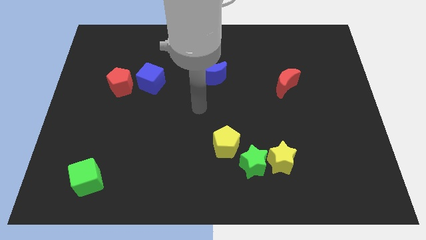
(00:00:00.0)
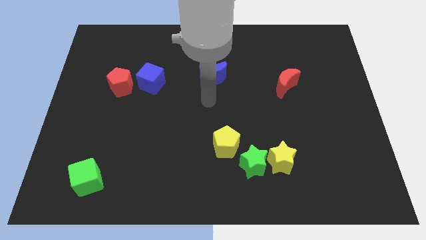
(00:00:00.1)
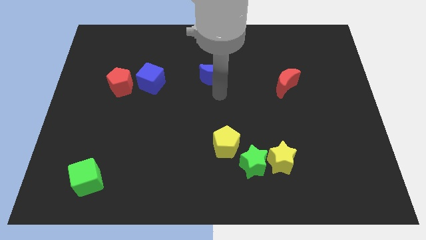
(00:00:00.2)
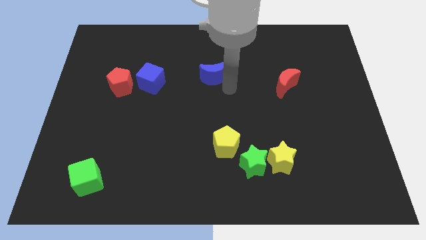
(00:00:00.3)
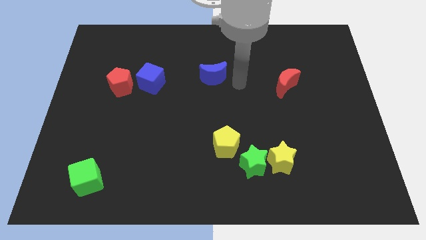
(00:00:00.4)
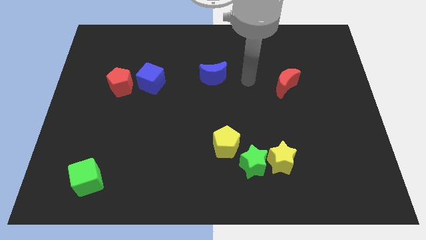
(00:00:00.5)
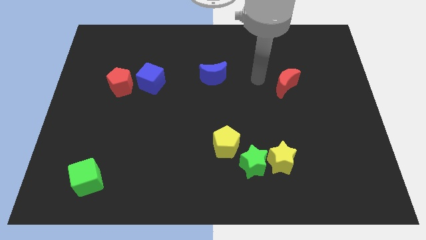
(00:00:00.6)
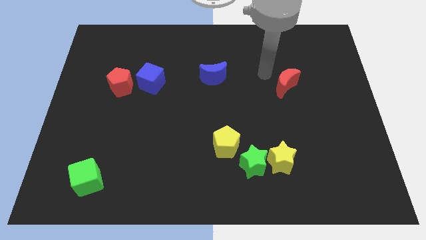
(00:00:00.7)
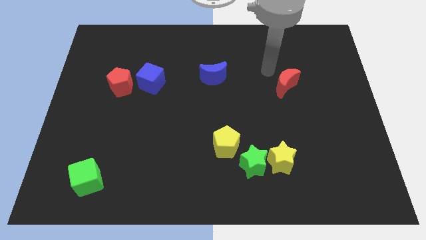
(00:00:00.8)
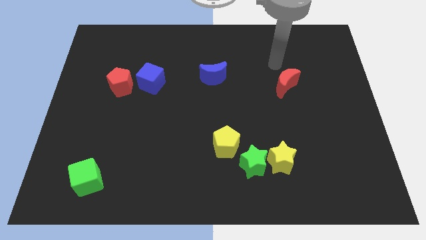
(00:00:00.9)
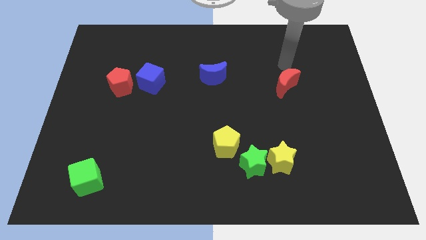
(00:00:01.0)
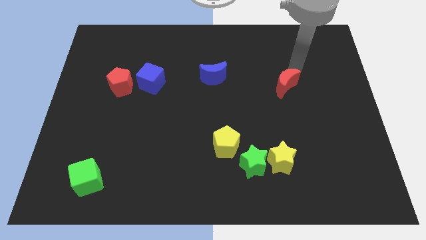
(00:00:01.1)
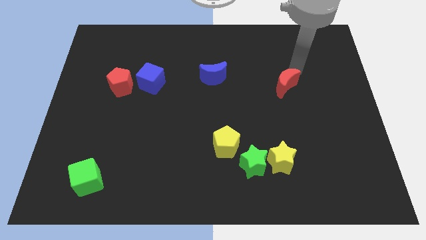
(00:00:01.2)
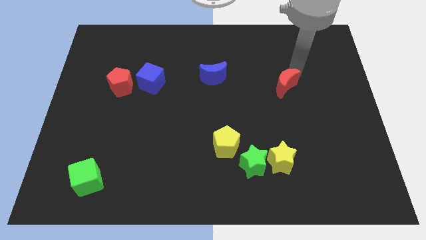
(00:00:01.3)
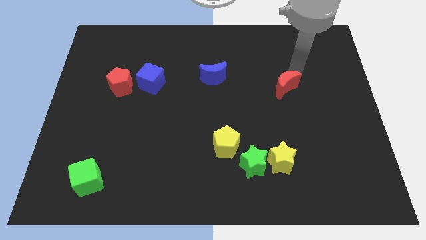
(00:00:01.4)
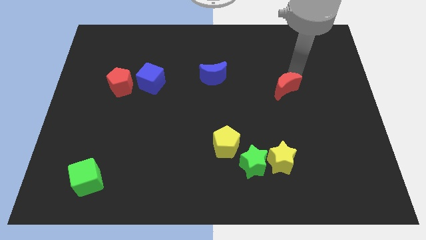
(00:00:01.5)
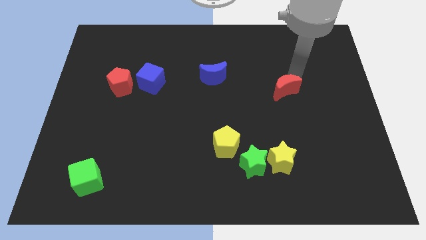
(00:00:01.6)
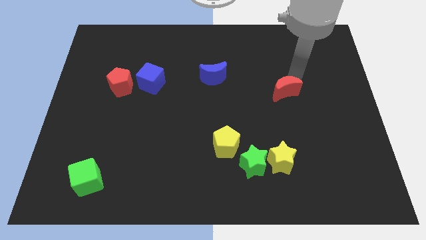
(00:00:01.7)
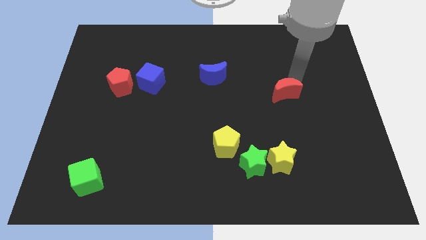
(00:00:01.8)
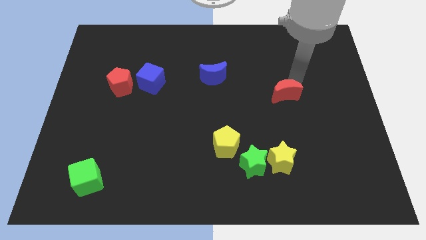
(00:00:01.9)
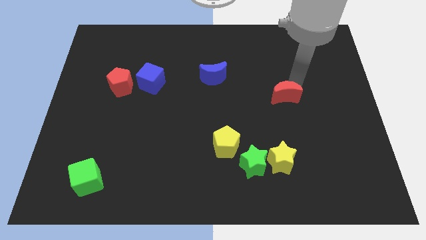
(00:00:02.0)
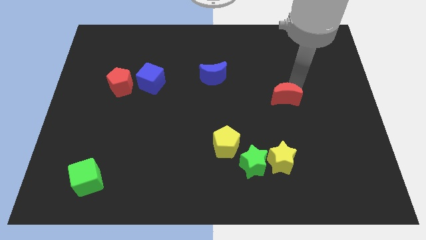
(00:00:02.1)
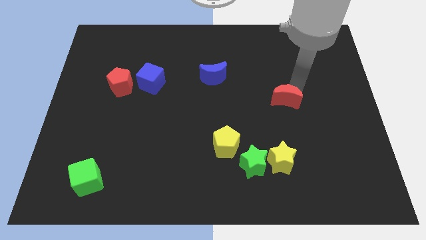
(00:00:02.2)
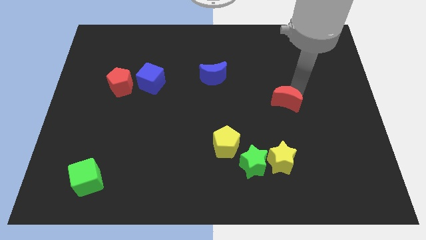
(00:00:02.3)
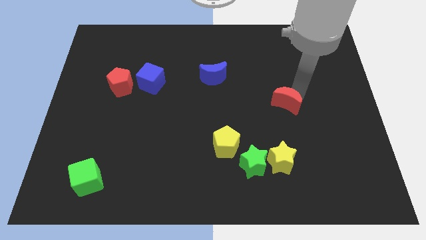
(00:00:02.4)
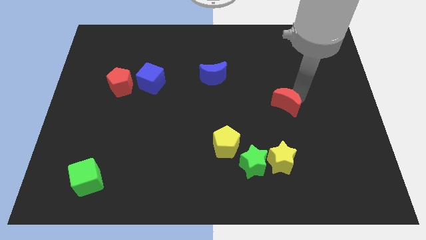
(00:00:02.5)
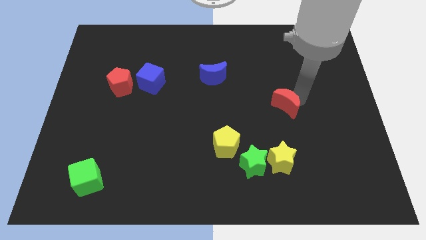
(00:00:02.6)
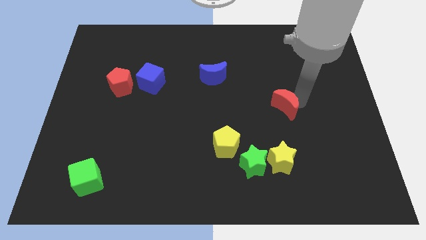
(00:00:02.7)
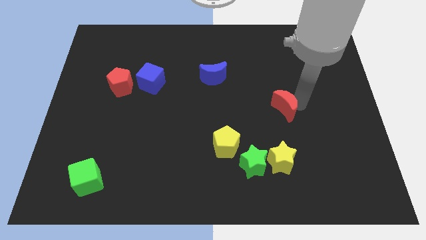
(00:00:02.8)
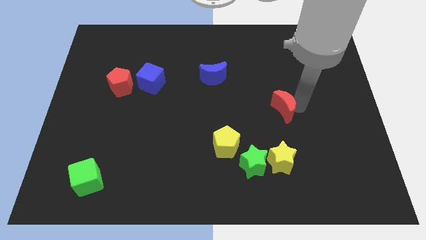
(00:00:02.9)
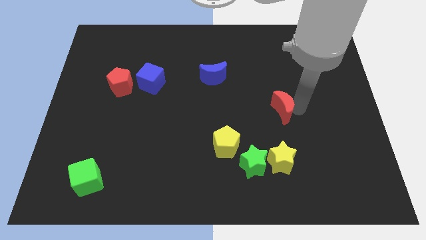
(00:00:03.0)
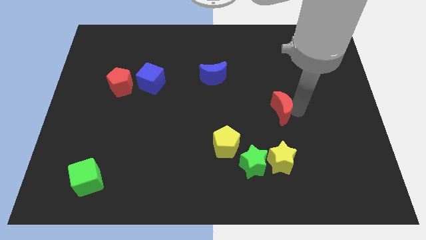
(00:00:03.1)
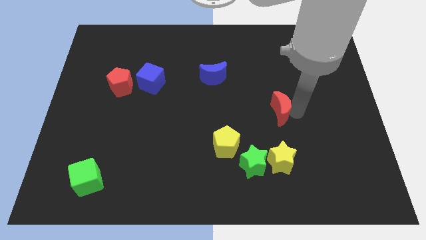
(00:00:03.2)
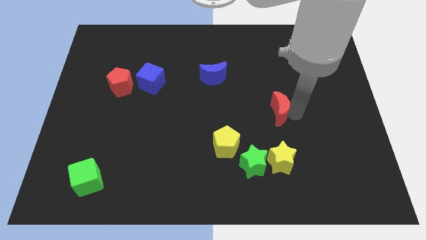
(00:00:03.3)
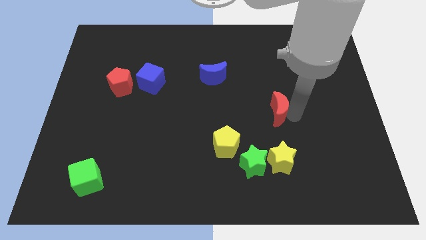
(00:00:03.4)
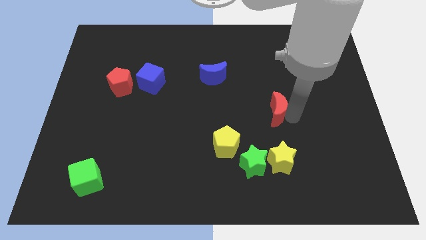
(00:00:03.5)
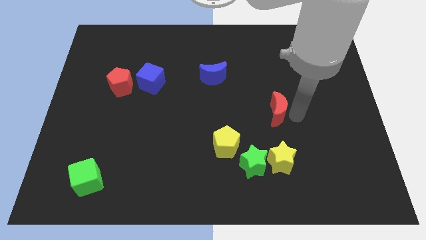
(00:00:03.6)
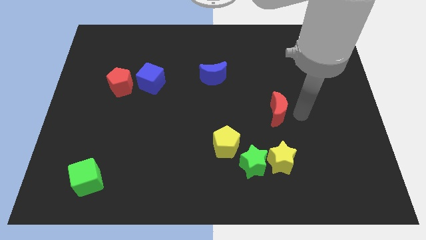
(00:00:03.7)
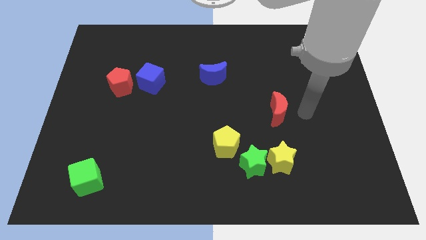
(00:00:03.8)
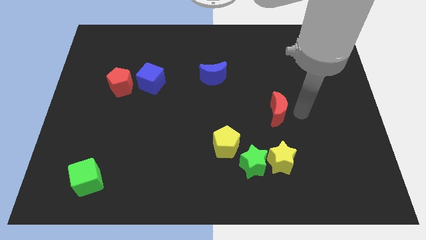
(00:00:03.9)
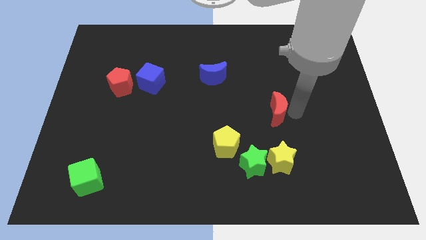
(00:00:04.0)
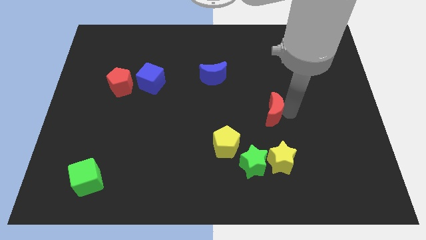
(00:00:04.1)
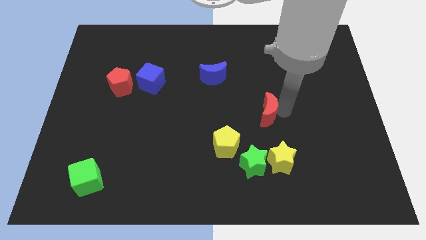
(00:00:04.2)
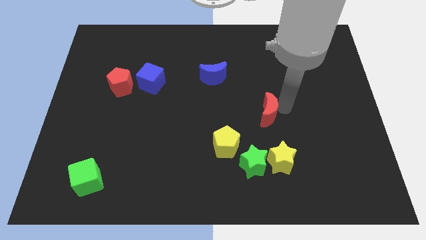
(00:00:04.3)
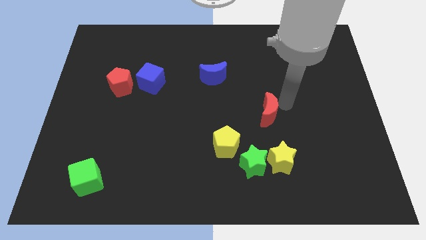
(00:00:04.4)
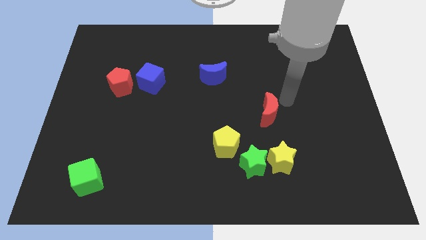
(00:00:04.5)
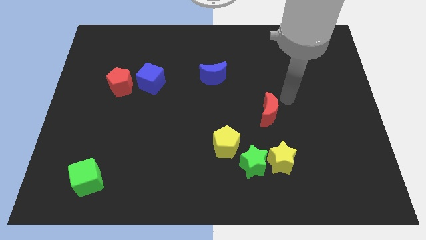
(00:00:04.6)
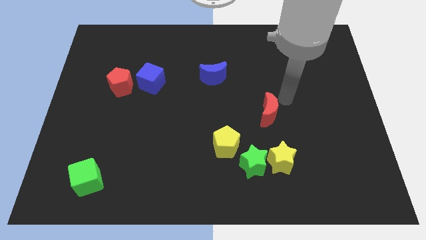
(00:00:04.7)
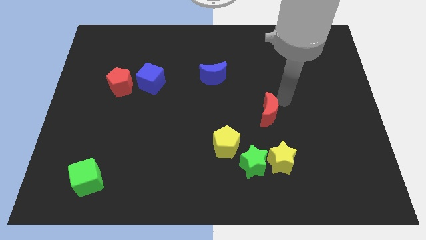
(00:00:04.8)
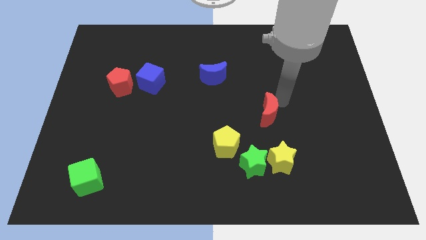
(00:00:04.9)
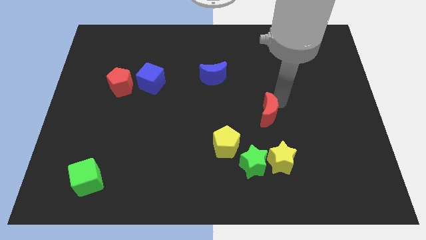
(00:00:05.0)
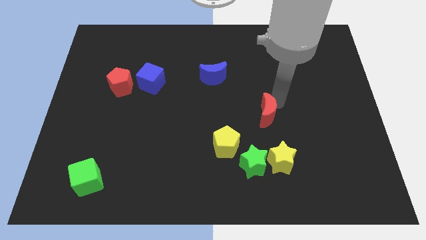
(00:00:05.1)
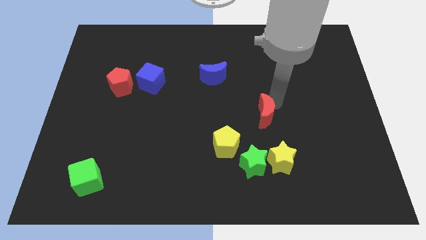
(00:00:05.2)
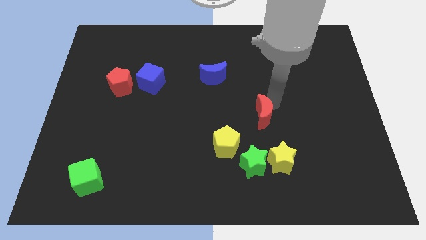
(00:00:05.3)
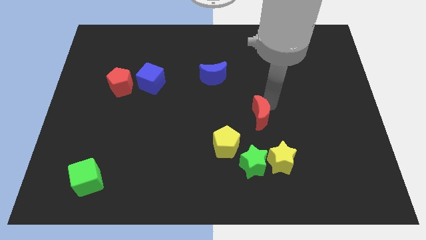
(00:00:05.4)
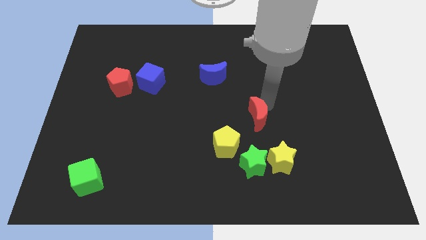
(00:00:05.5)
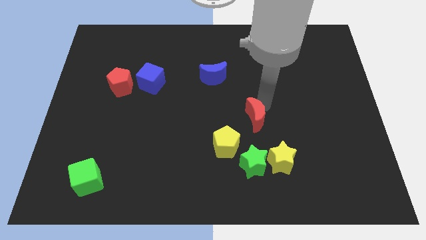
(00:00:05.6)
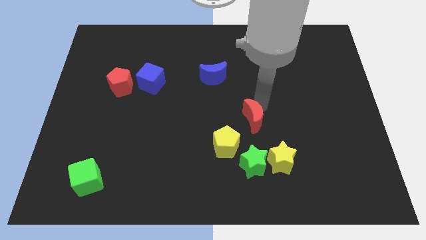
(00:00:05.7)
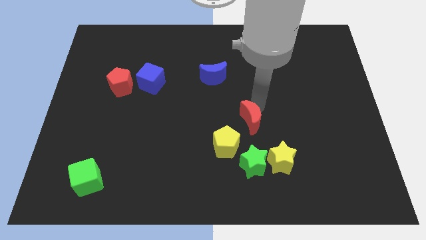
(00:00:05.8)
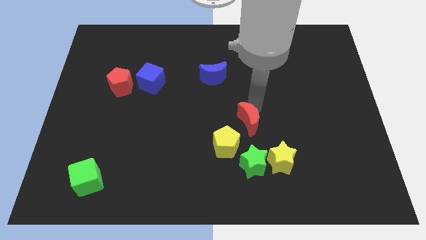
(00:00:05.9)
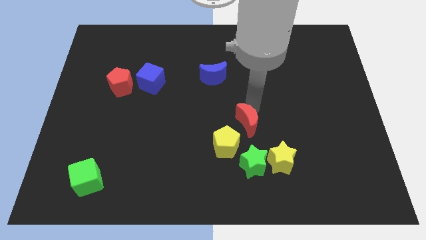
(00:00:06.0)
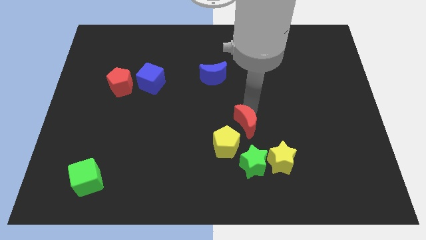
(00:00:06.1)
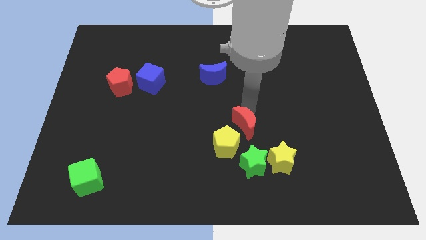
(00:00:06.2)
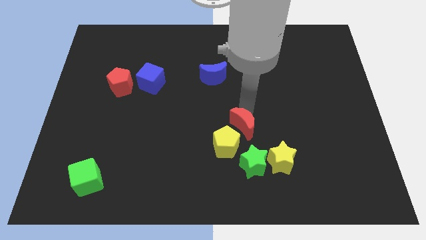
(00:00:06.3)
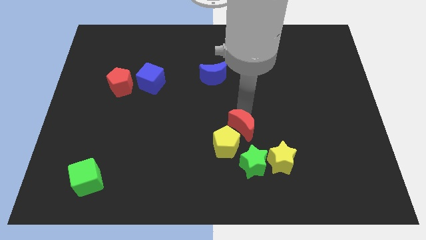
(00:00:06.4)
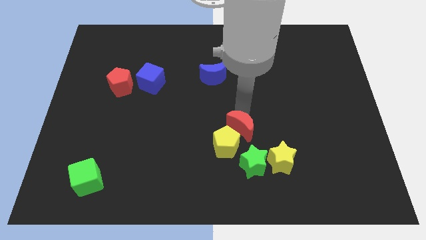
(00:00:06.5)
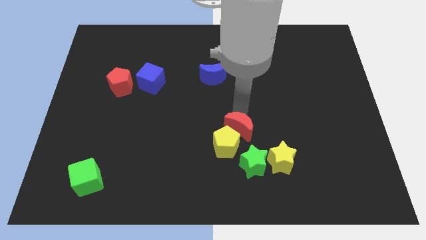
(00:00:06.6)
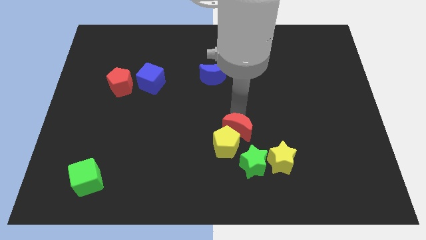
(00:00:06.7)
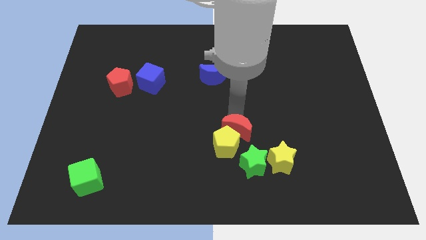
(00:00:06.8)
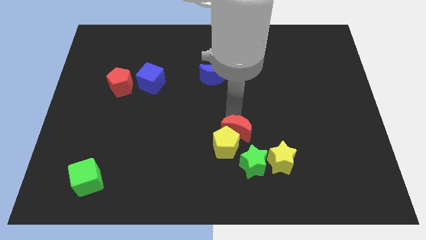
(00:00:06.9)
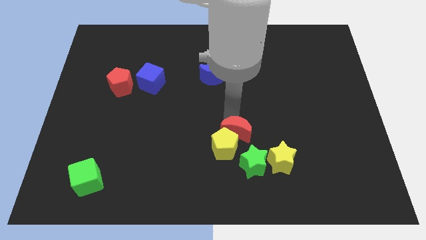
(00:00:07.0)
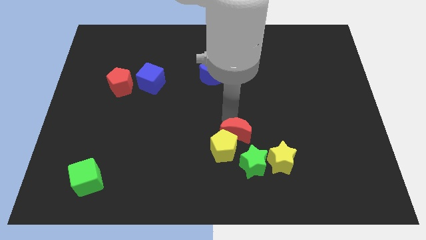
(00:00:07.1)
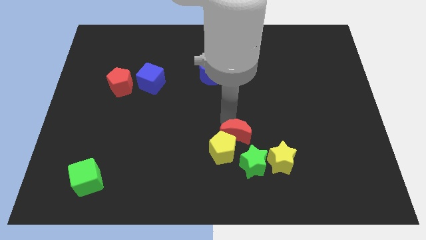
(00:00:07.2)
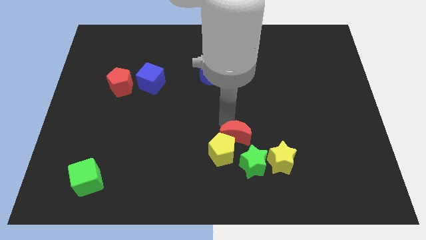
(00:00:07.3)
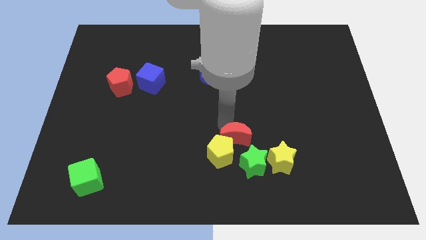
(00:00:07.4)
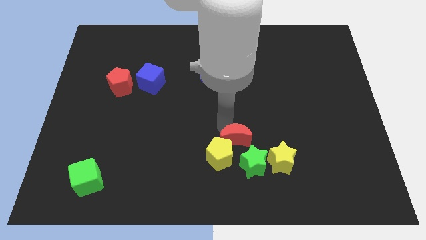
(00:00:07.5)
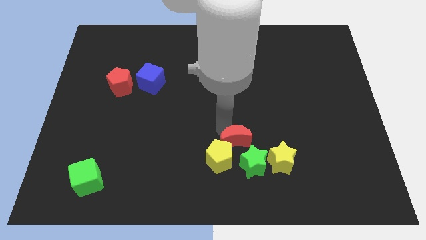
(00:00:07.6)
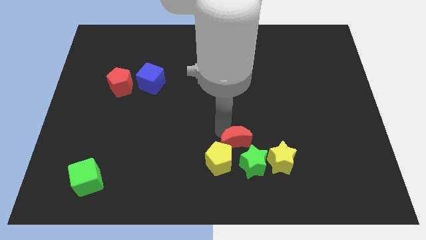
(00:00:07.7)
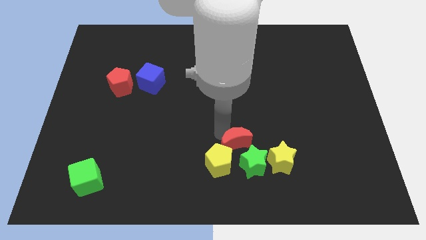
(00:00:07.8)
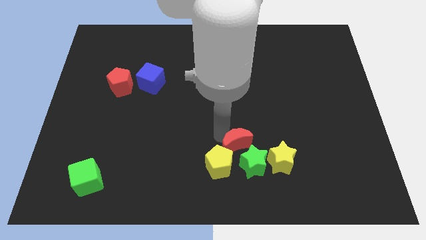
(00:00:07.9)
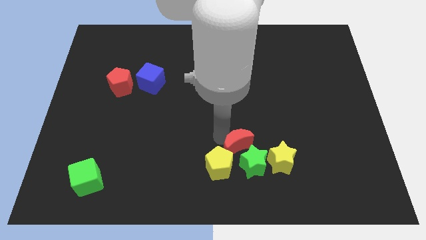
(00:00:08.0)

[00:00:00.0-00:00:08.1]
push the red moon towards the green star
